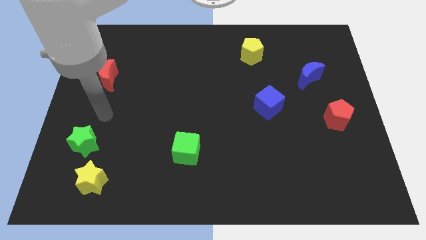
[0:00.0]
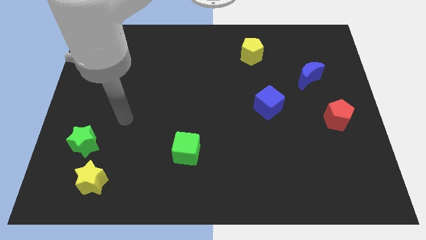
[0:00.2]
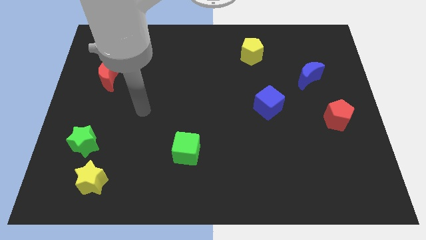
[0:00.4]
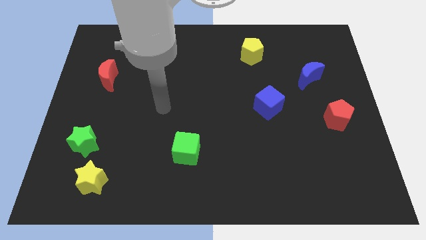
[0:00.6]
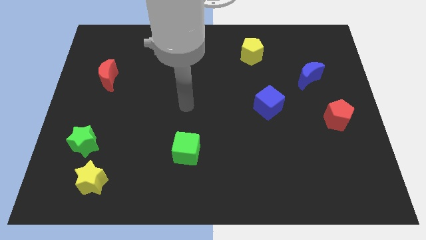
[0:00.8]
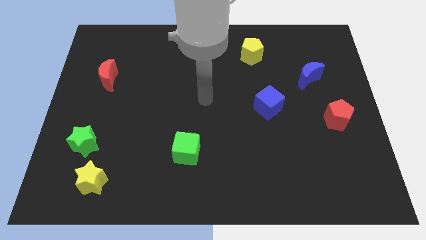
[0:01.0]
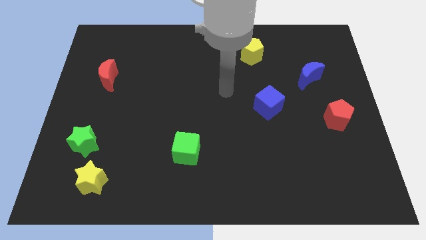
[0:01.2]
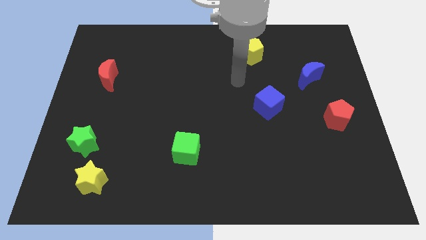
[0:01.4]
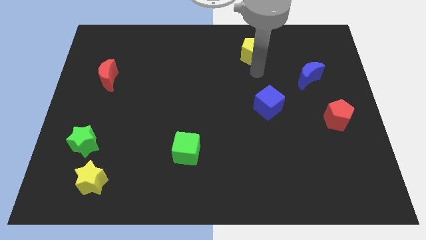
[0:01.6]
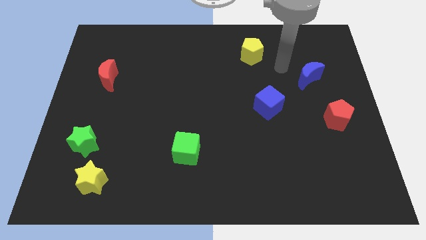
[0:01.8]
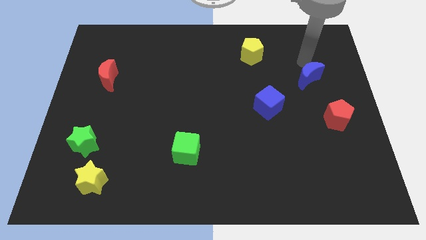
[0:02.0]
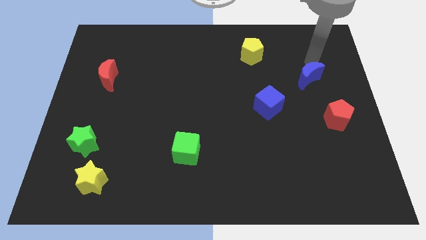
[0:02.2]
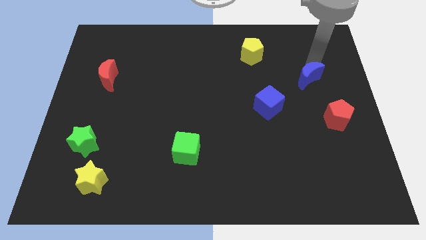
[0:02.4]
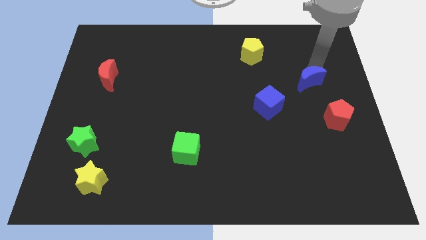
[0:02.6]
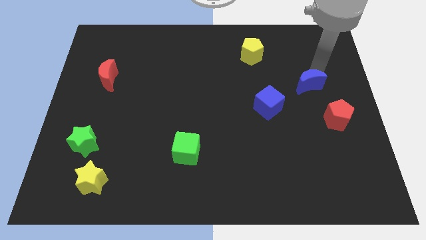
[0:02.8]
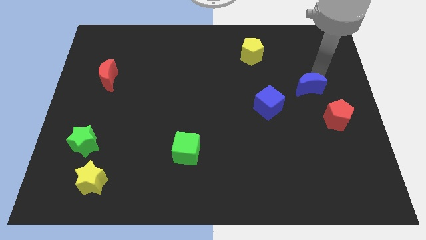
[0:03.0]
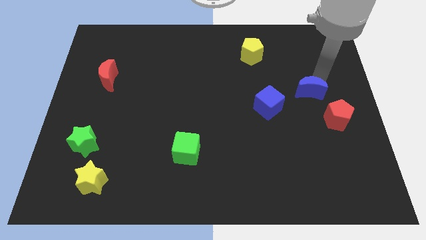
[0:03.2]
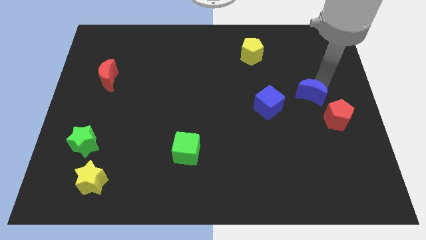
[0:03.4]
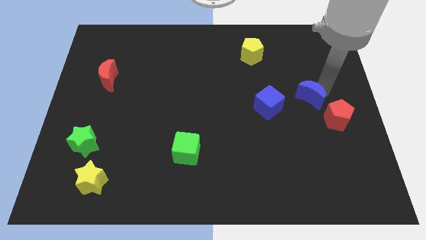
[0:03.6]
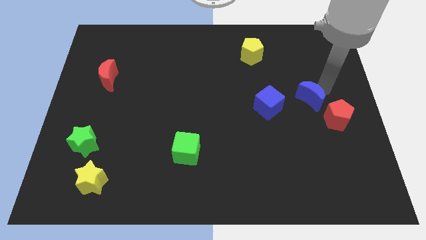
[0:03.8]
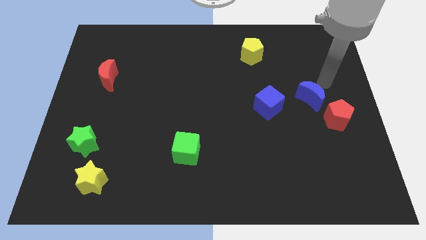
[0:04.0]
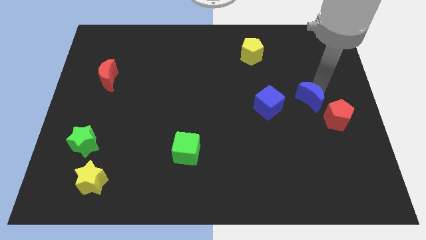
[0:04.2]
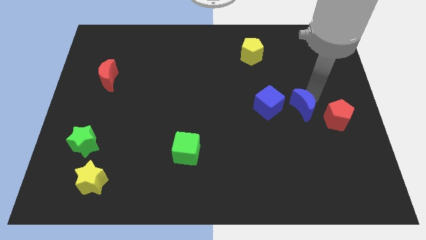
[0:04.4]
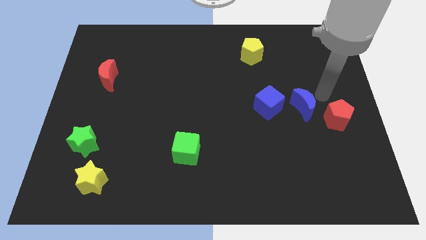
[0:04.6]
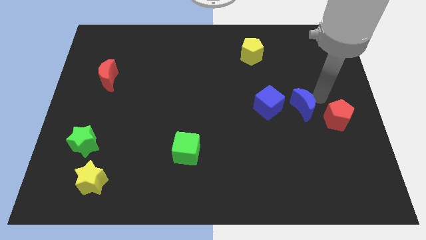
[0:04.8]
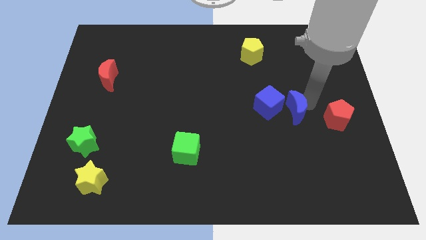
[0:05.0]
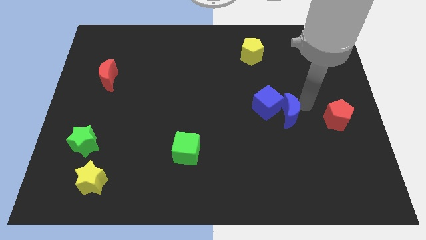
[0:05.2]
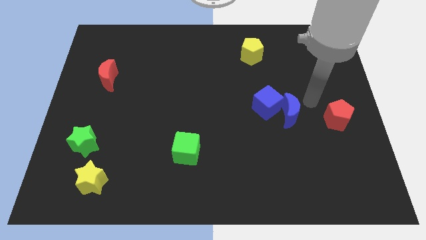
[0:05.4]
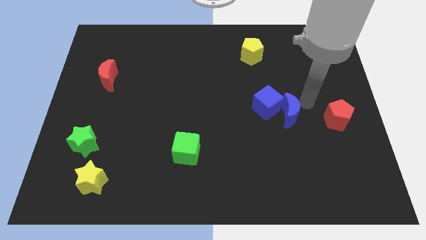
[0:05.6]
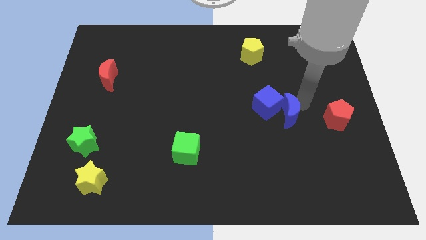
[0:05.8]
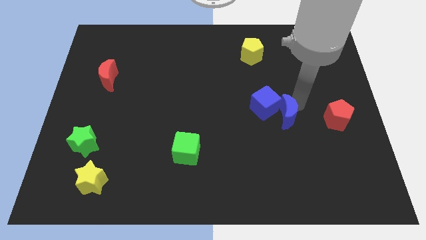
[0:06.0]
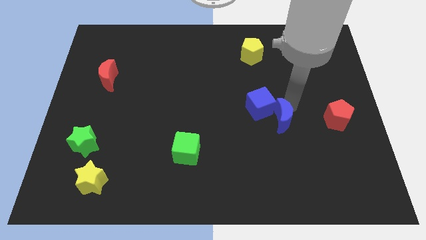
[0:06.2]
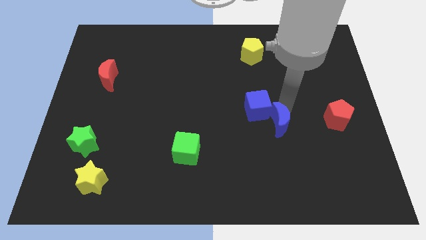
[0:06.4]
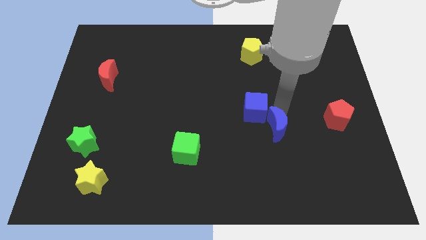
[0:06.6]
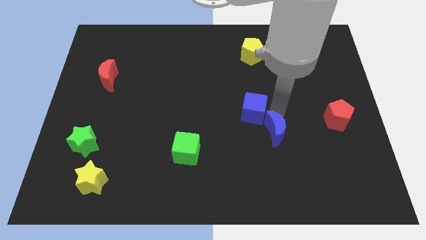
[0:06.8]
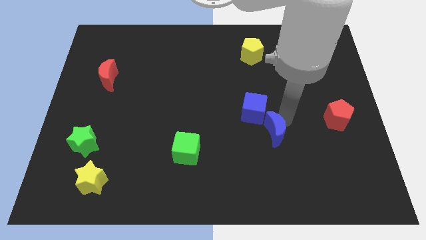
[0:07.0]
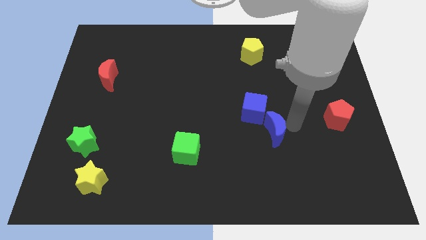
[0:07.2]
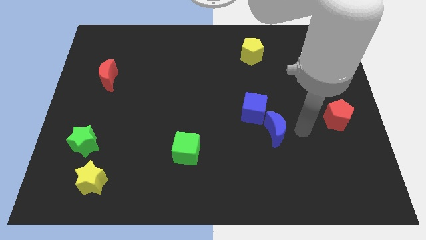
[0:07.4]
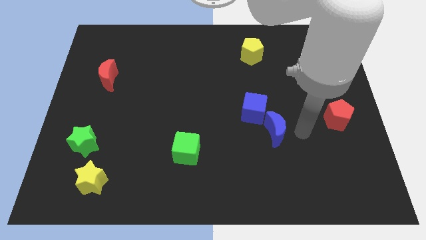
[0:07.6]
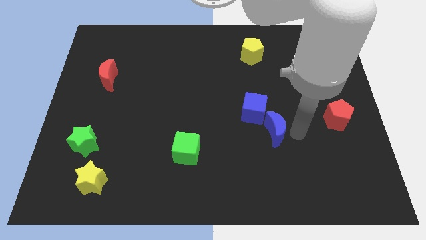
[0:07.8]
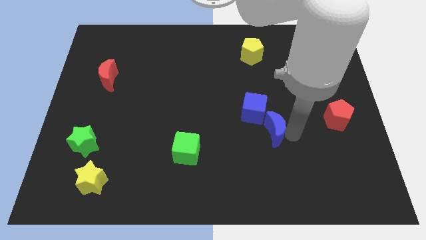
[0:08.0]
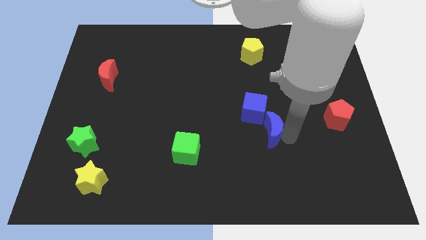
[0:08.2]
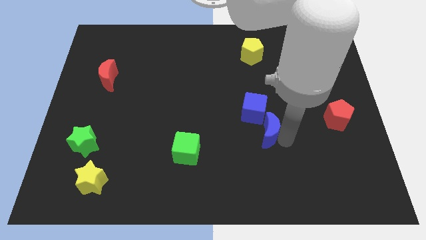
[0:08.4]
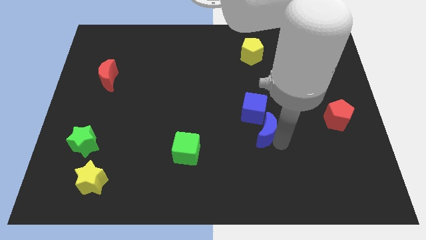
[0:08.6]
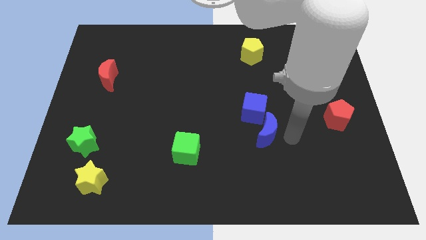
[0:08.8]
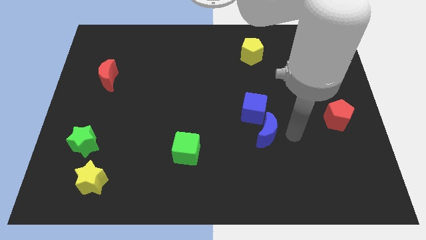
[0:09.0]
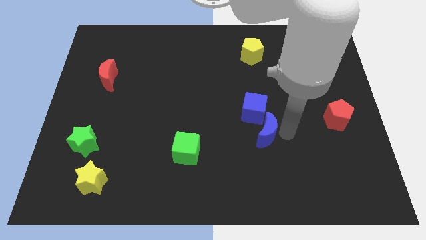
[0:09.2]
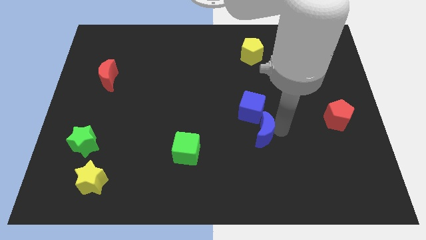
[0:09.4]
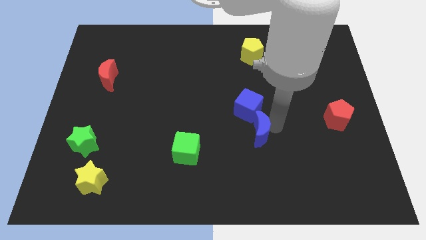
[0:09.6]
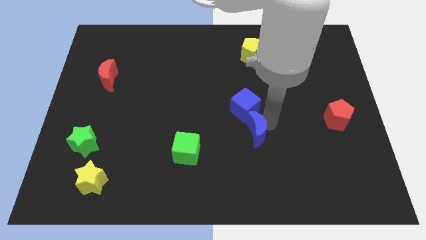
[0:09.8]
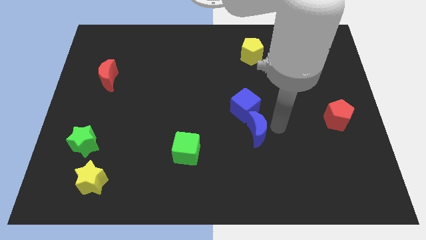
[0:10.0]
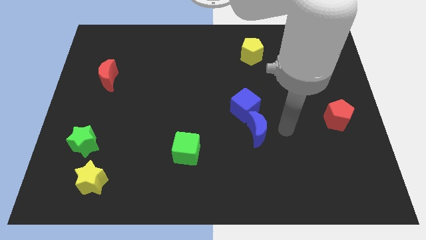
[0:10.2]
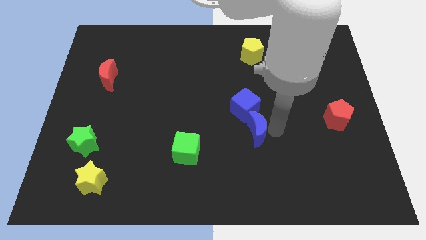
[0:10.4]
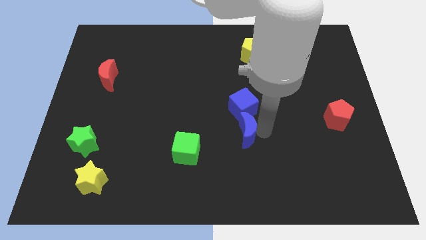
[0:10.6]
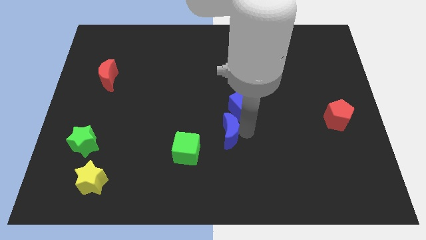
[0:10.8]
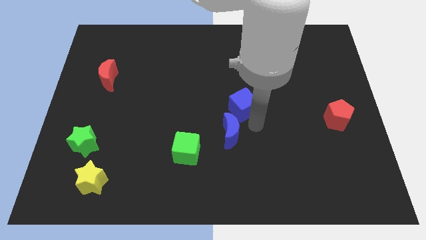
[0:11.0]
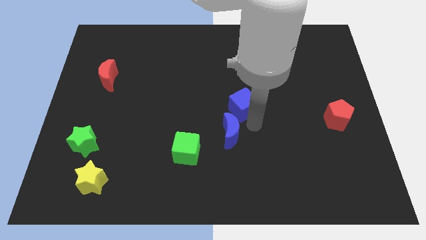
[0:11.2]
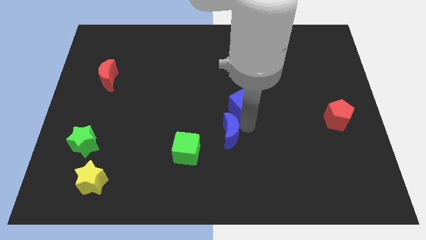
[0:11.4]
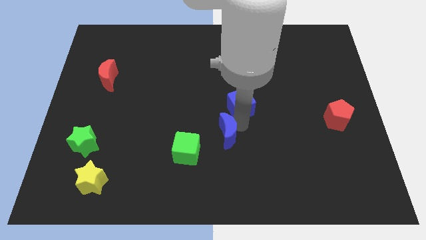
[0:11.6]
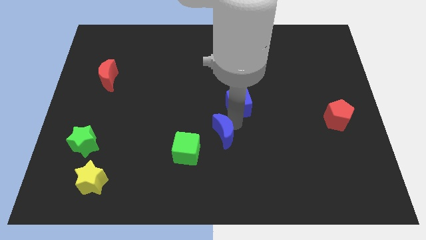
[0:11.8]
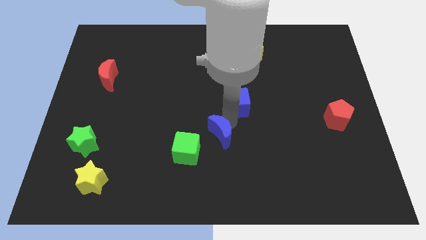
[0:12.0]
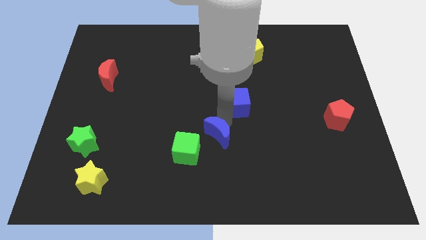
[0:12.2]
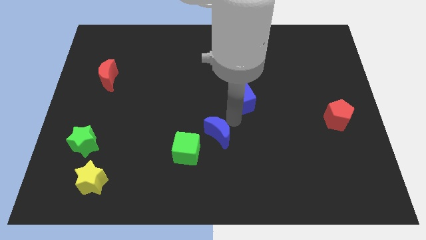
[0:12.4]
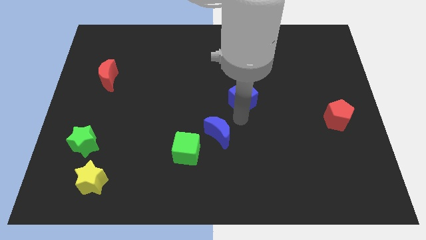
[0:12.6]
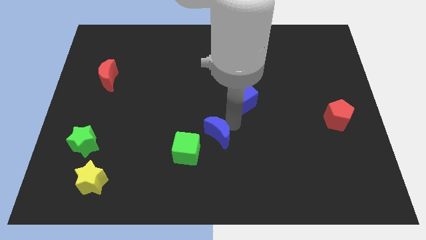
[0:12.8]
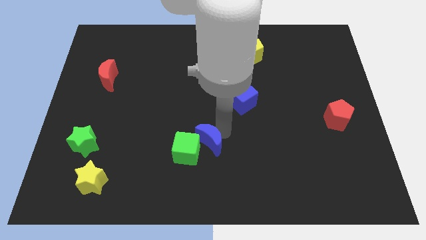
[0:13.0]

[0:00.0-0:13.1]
put the blue moon close to the green cube
